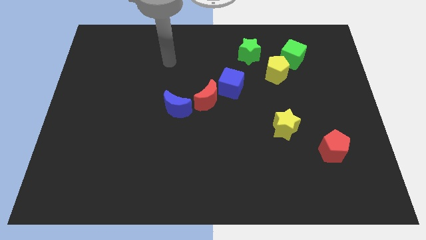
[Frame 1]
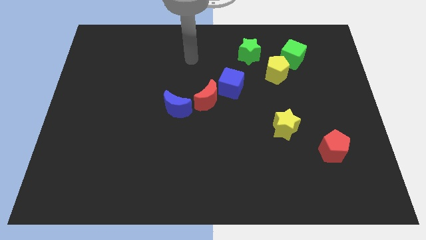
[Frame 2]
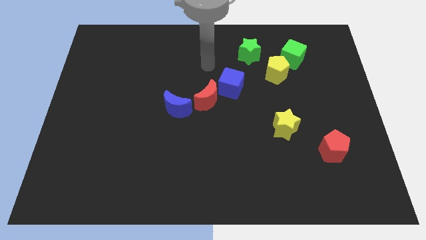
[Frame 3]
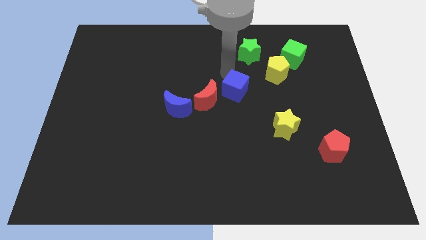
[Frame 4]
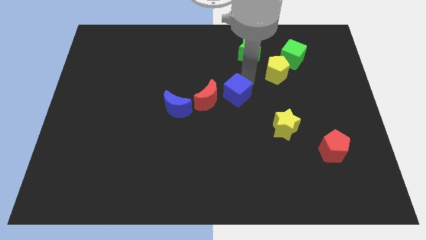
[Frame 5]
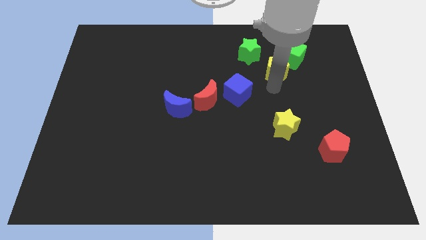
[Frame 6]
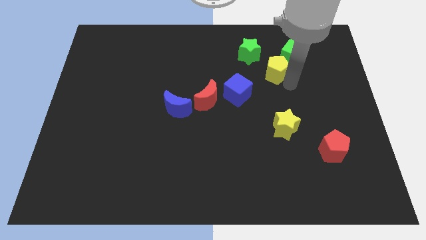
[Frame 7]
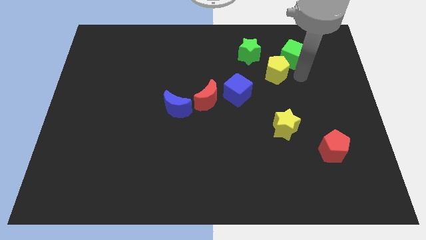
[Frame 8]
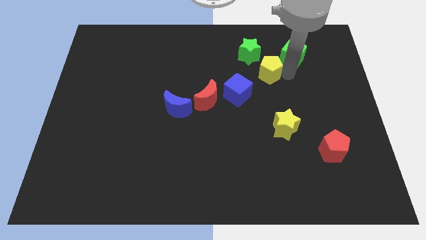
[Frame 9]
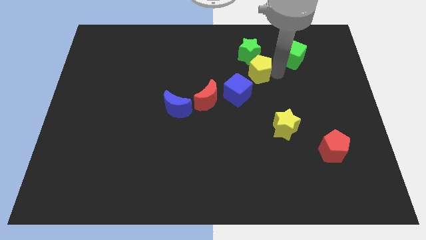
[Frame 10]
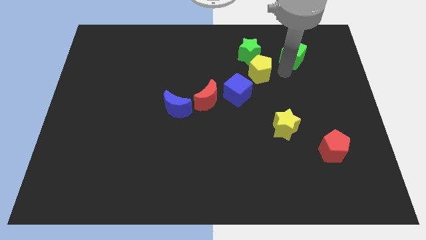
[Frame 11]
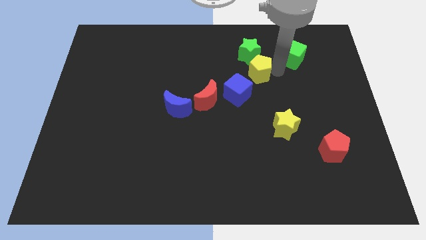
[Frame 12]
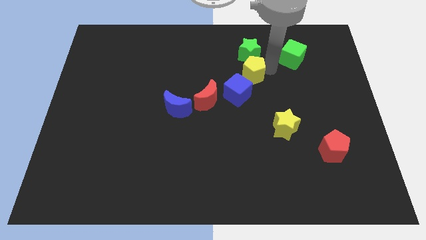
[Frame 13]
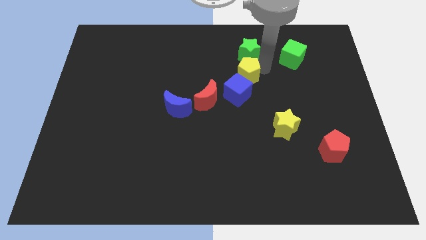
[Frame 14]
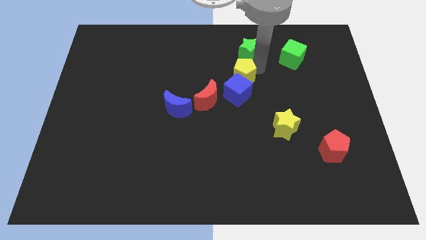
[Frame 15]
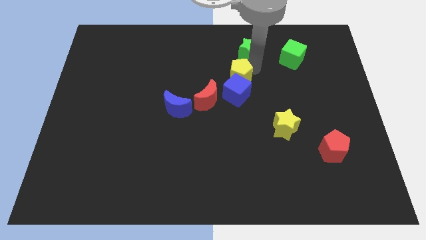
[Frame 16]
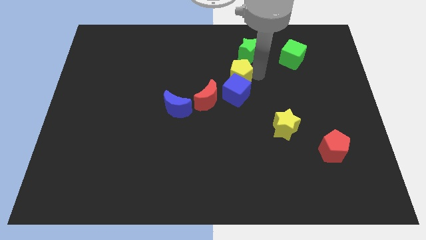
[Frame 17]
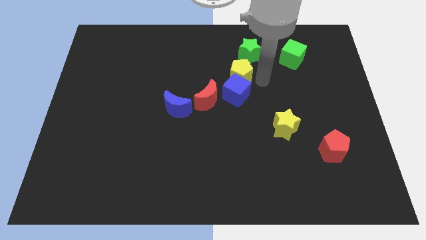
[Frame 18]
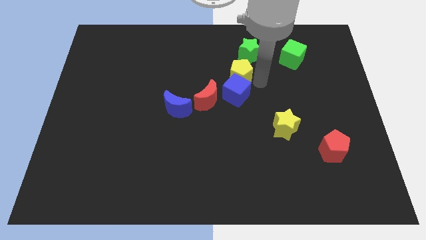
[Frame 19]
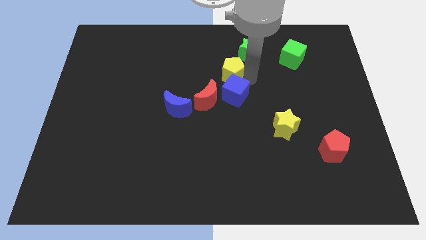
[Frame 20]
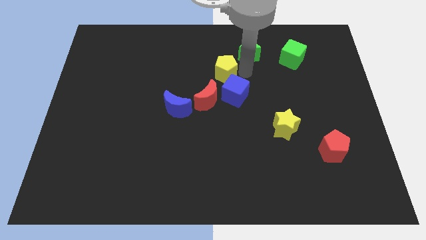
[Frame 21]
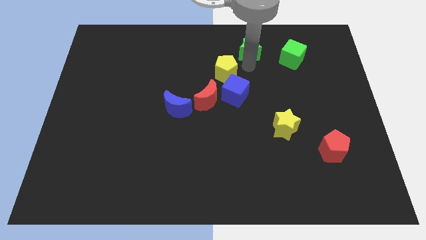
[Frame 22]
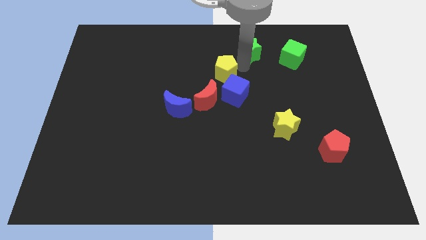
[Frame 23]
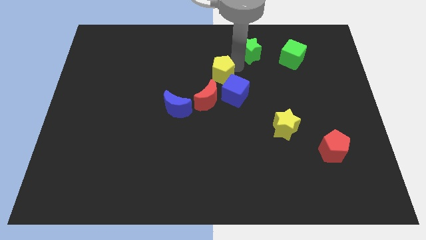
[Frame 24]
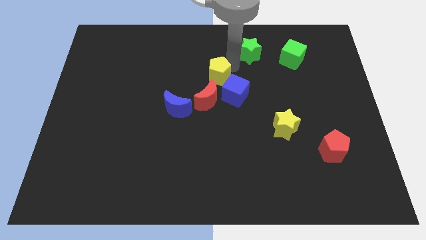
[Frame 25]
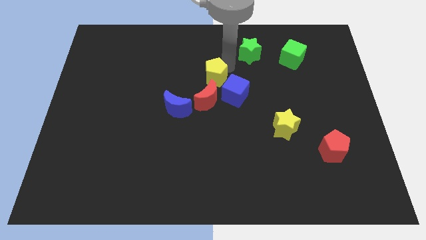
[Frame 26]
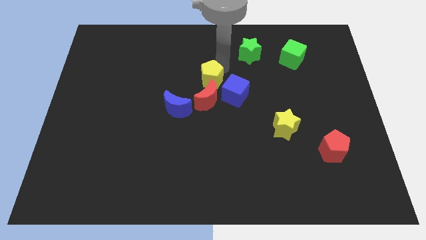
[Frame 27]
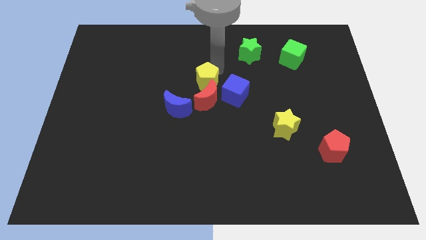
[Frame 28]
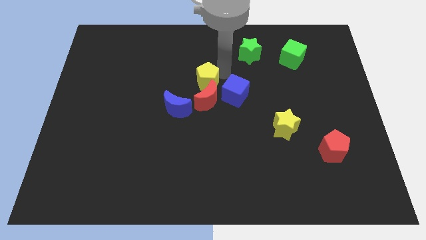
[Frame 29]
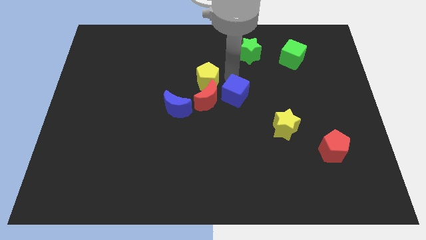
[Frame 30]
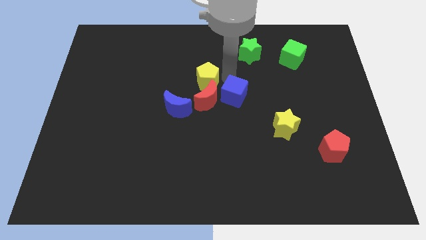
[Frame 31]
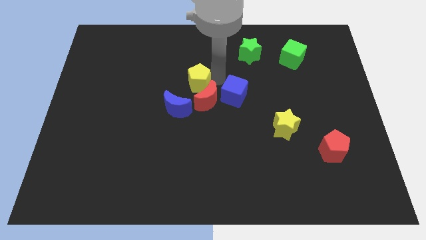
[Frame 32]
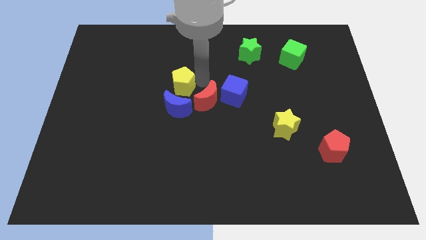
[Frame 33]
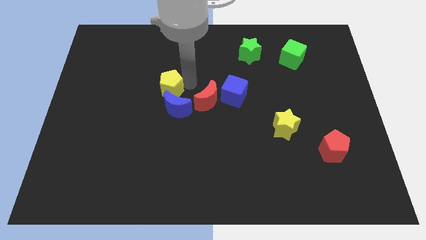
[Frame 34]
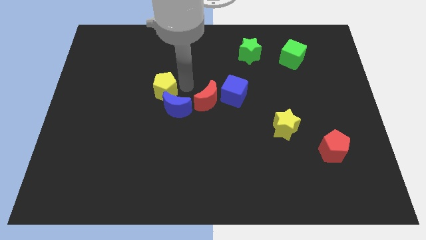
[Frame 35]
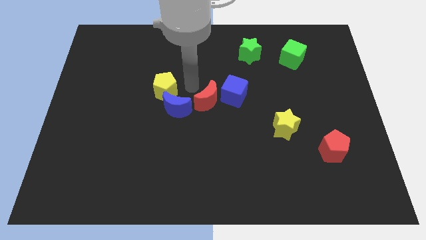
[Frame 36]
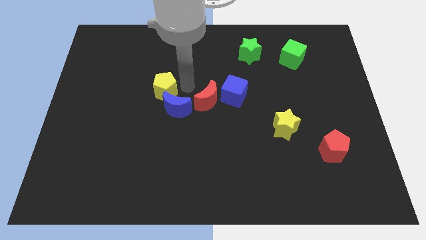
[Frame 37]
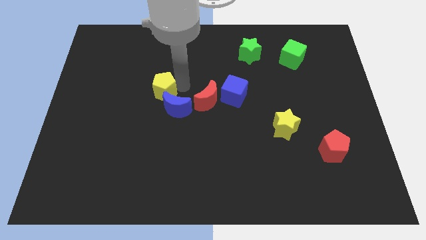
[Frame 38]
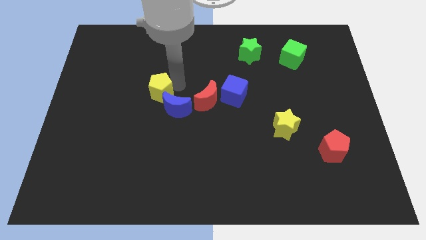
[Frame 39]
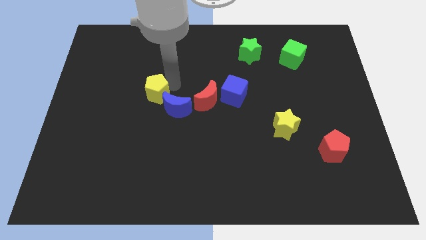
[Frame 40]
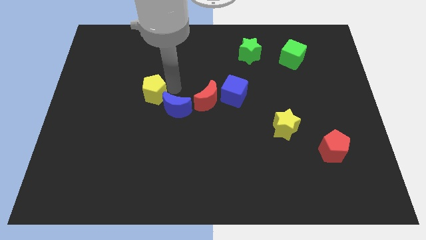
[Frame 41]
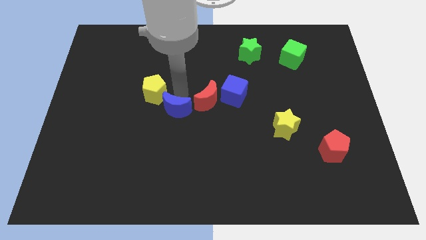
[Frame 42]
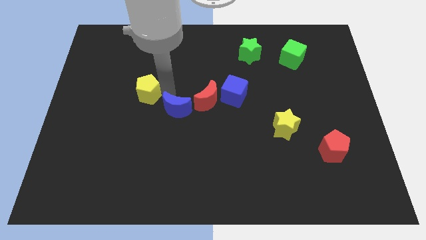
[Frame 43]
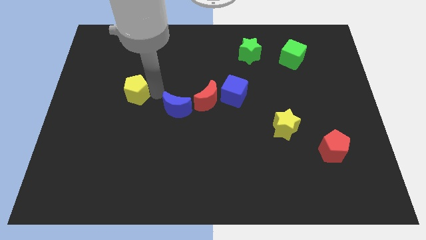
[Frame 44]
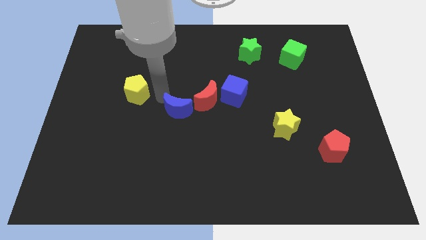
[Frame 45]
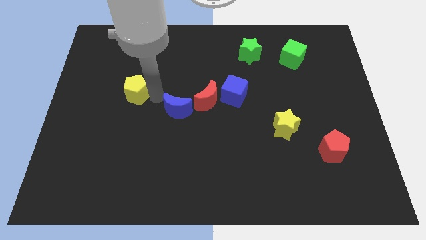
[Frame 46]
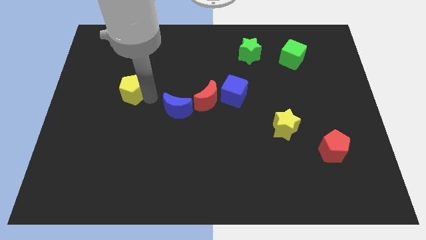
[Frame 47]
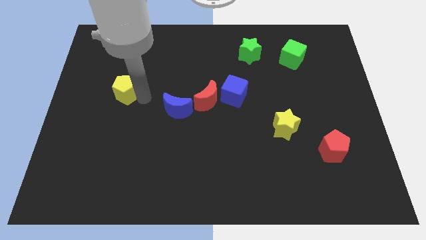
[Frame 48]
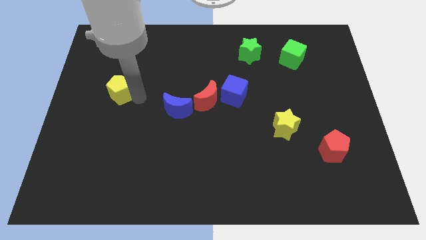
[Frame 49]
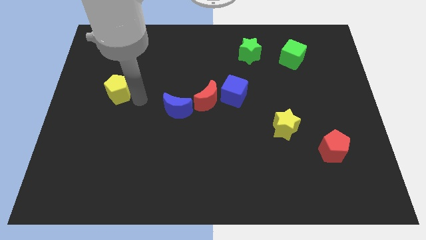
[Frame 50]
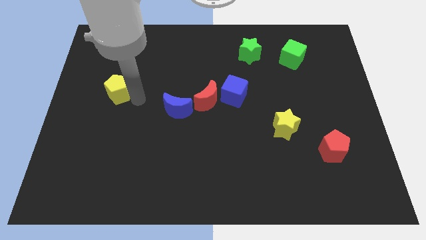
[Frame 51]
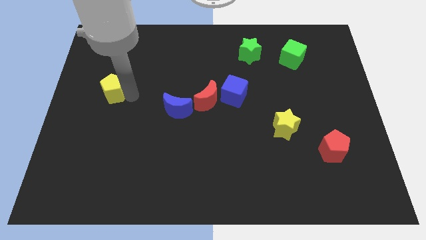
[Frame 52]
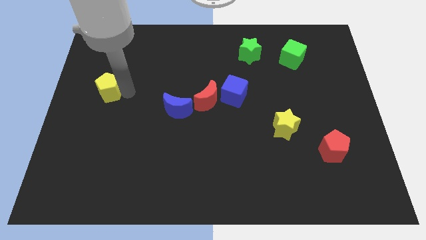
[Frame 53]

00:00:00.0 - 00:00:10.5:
move the yellow pentagon to the center left

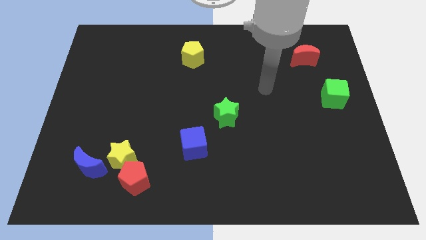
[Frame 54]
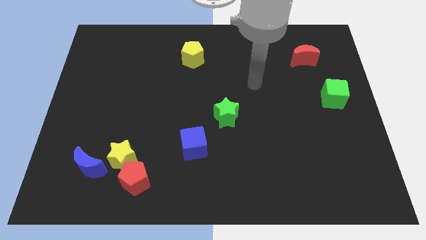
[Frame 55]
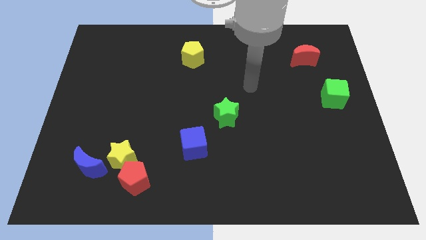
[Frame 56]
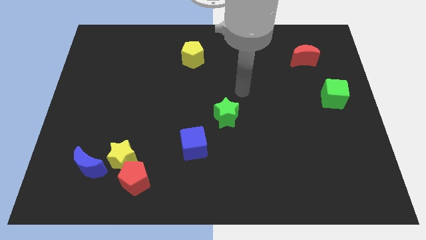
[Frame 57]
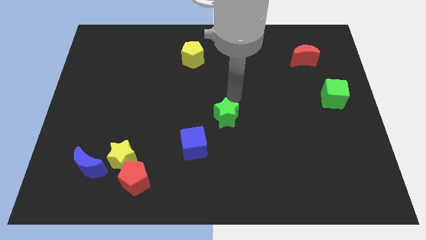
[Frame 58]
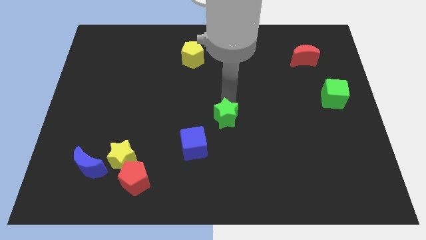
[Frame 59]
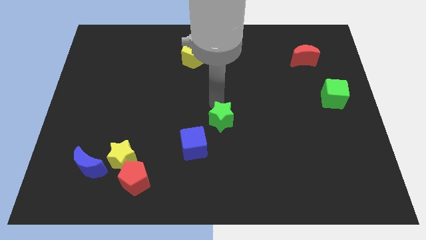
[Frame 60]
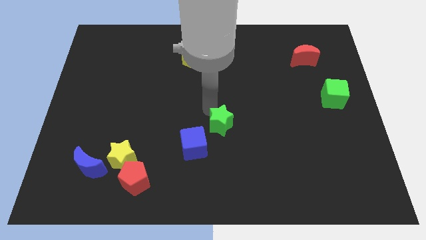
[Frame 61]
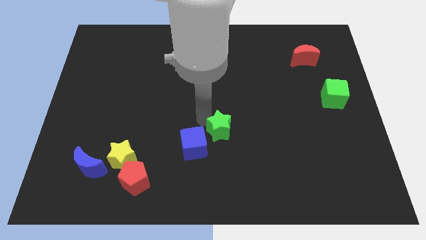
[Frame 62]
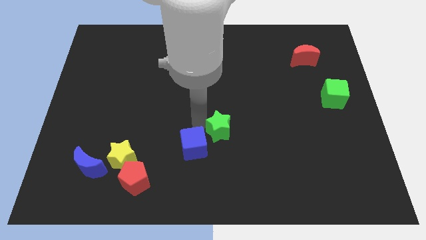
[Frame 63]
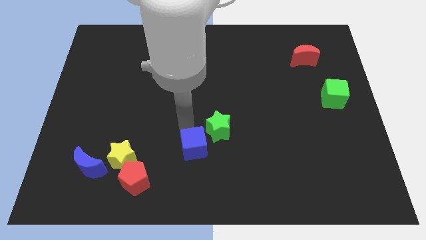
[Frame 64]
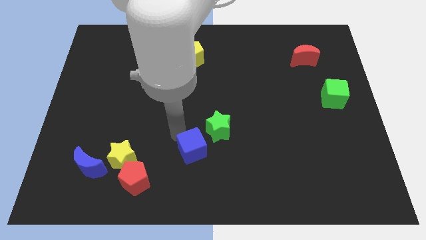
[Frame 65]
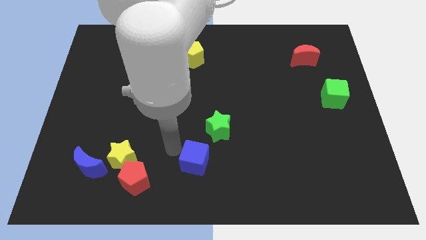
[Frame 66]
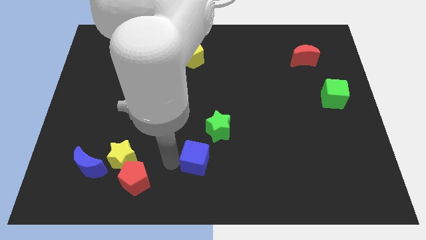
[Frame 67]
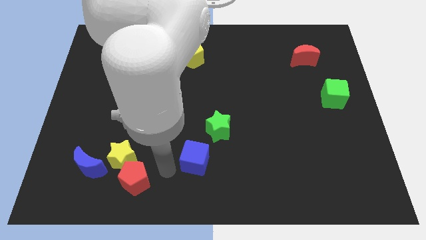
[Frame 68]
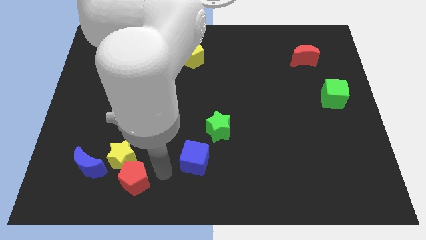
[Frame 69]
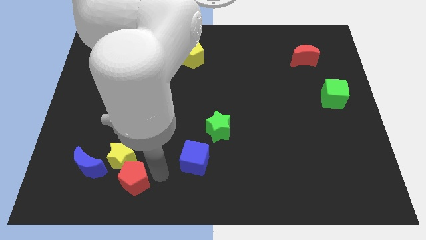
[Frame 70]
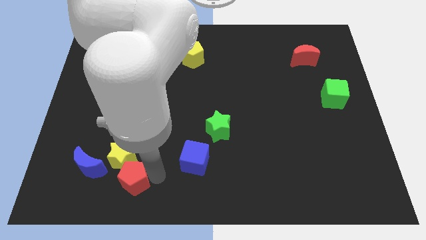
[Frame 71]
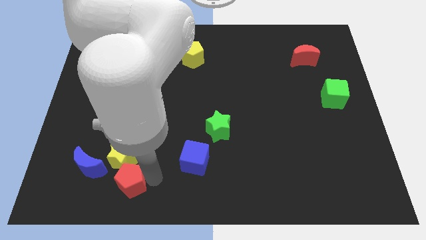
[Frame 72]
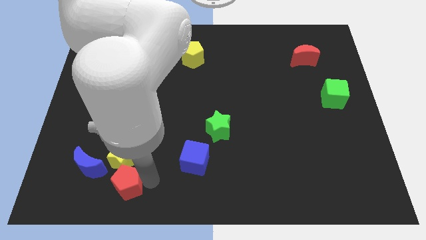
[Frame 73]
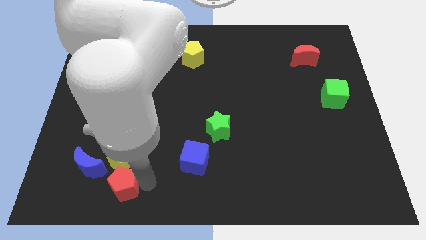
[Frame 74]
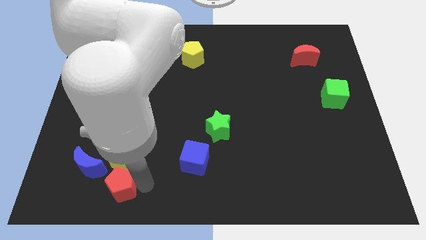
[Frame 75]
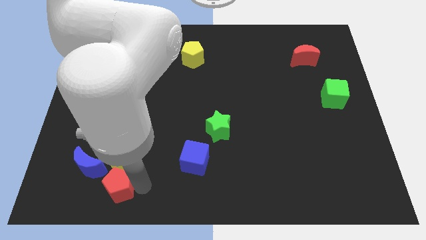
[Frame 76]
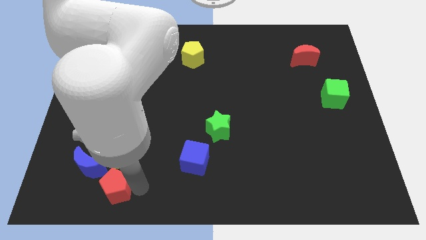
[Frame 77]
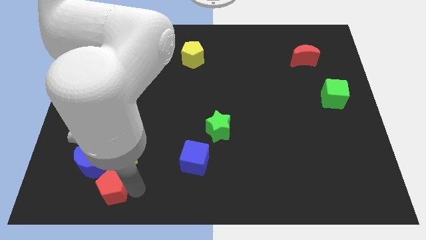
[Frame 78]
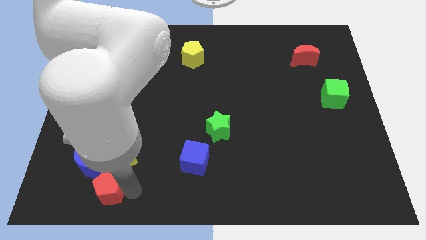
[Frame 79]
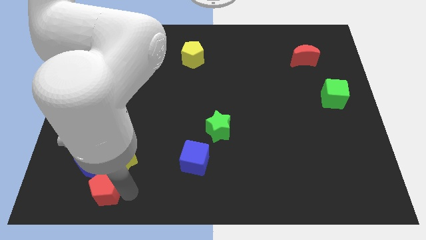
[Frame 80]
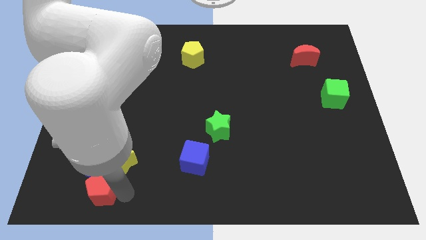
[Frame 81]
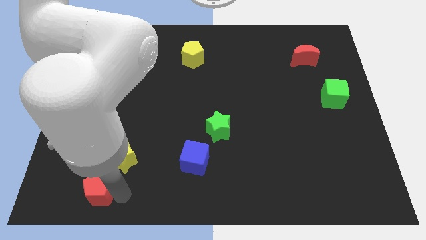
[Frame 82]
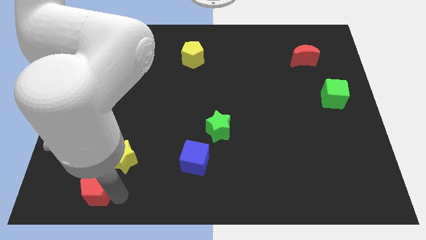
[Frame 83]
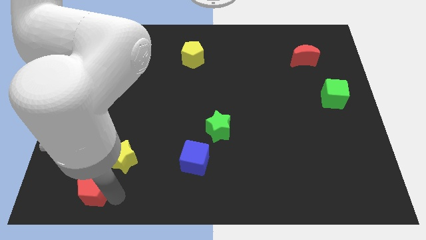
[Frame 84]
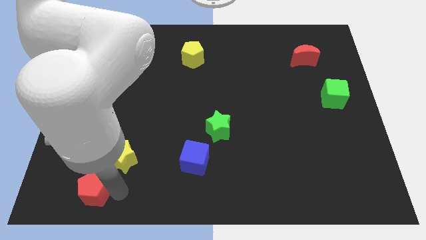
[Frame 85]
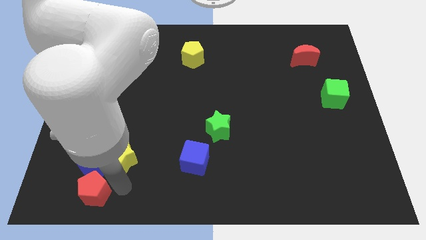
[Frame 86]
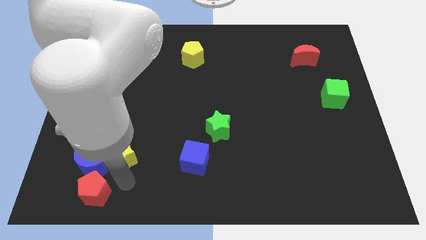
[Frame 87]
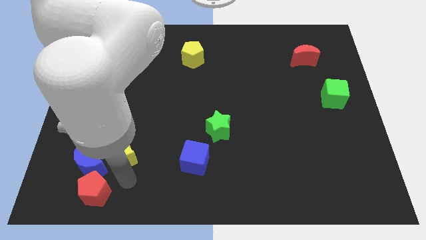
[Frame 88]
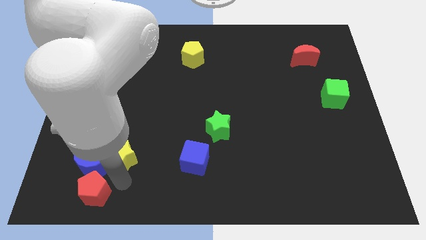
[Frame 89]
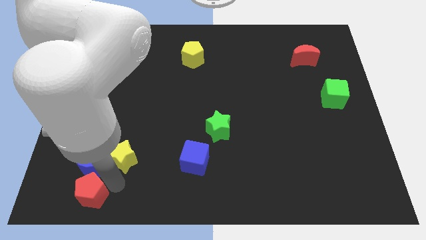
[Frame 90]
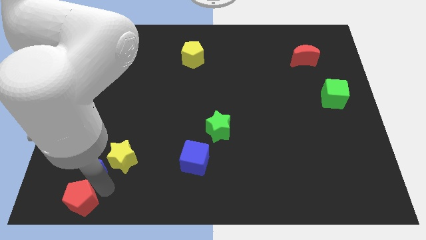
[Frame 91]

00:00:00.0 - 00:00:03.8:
push the red pentagon to the bottom left corner
